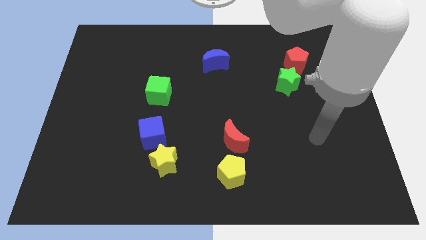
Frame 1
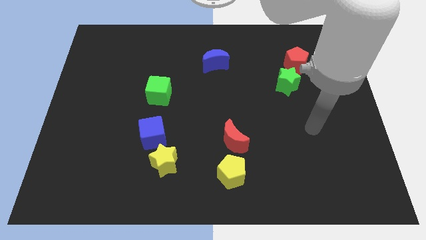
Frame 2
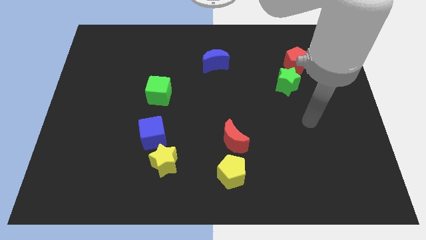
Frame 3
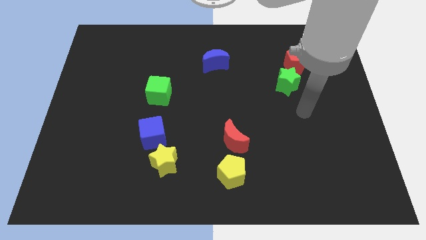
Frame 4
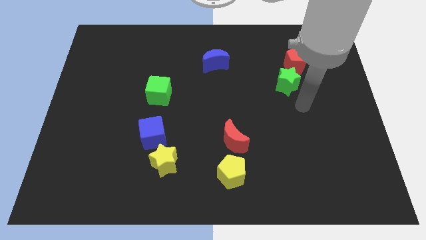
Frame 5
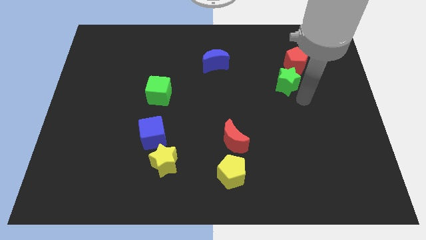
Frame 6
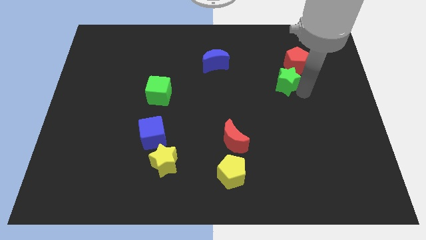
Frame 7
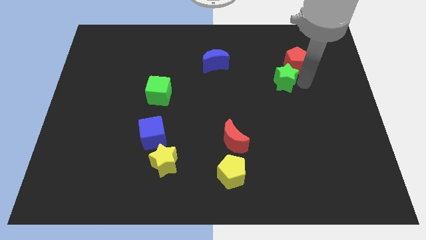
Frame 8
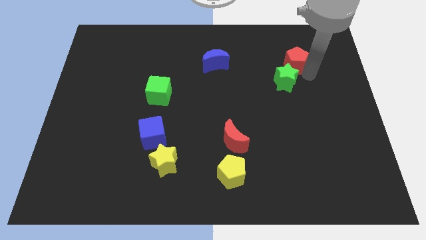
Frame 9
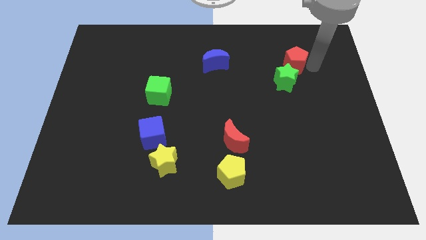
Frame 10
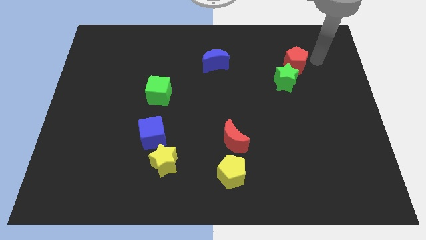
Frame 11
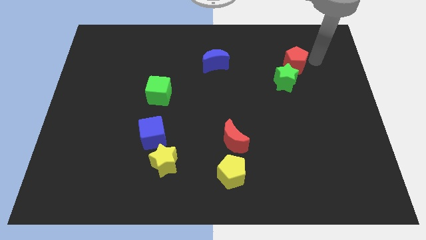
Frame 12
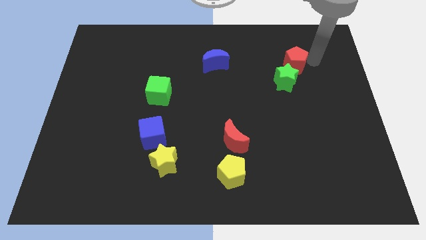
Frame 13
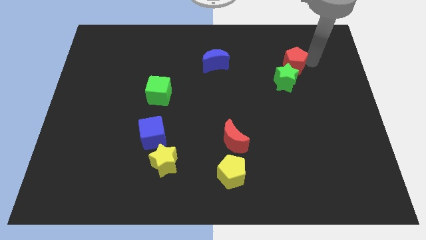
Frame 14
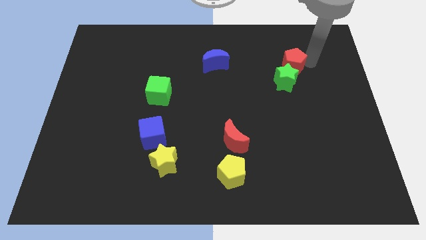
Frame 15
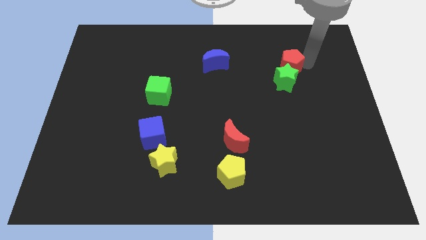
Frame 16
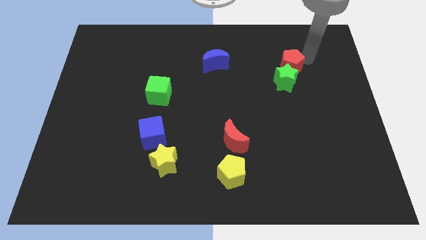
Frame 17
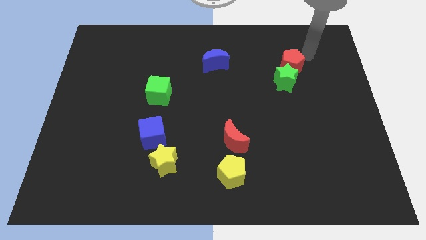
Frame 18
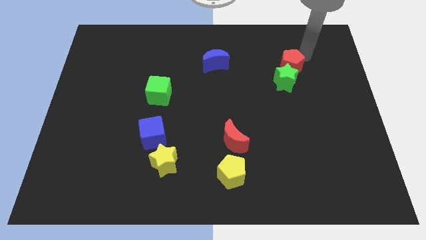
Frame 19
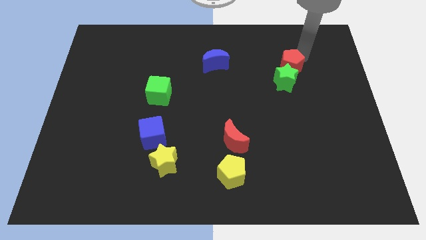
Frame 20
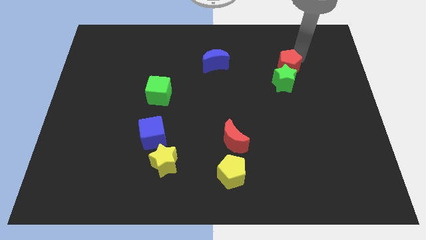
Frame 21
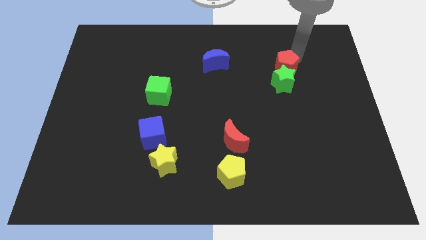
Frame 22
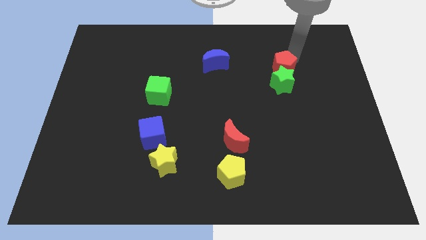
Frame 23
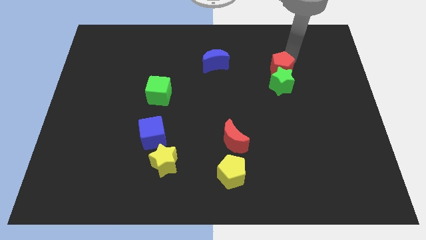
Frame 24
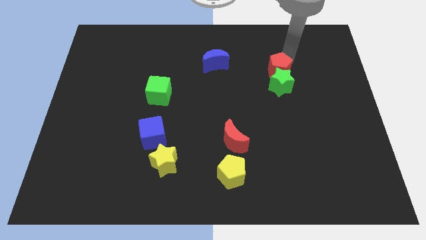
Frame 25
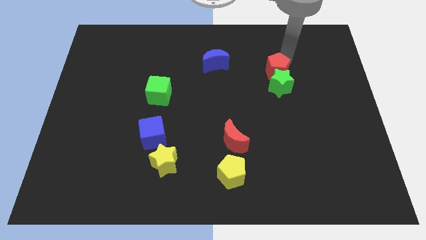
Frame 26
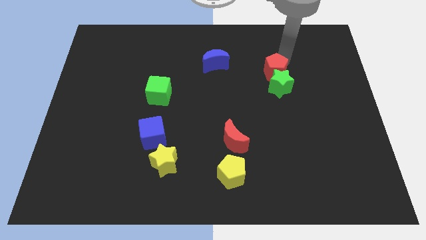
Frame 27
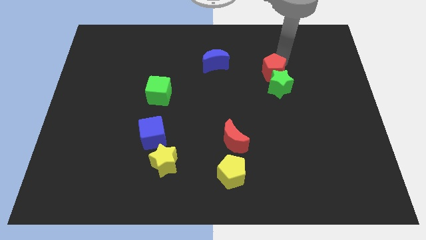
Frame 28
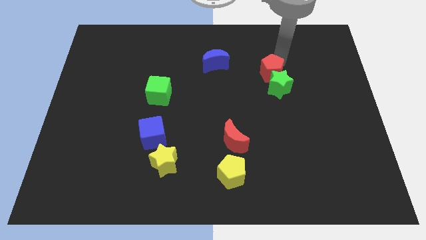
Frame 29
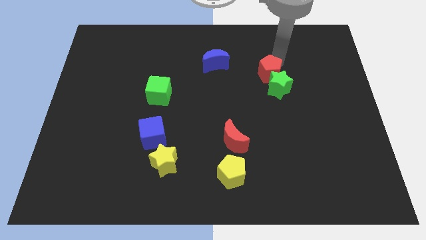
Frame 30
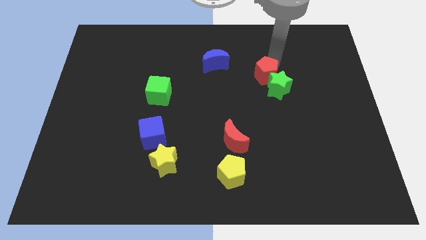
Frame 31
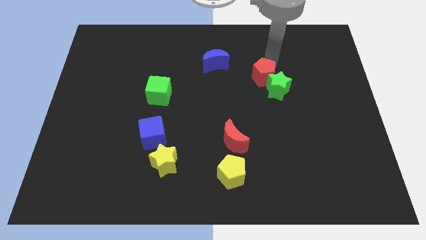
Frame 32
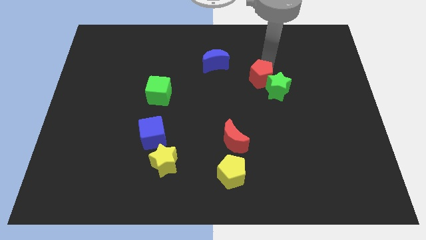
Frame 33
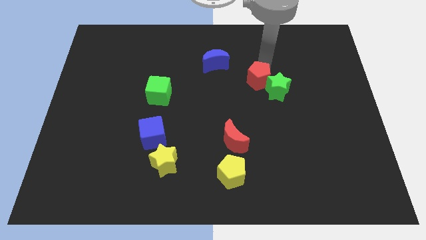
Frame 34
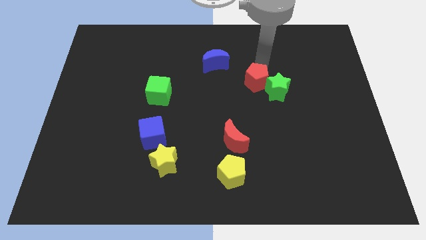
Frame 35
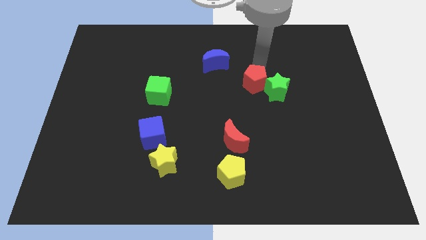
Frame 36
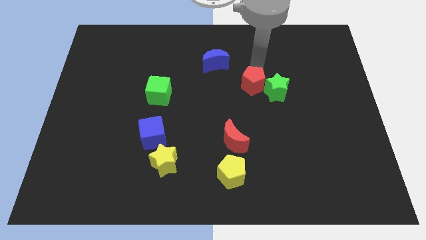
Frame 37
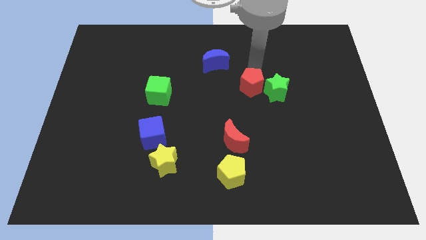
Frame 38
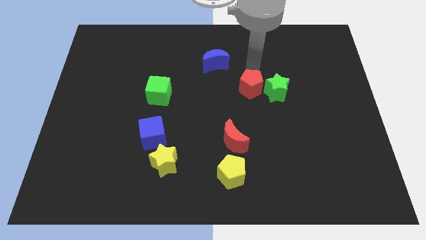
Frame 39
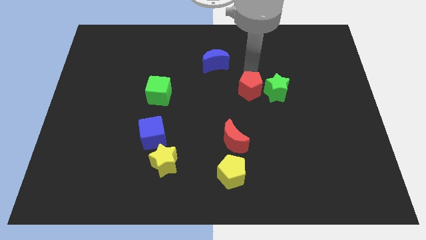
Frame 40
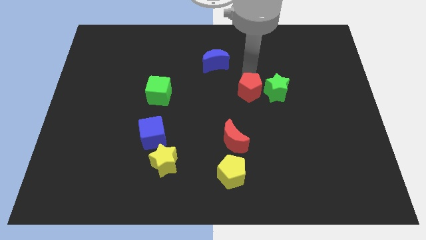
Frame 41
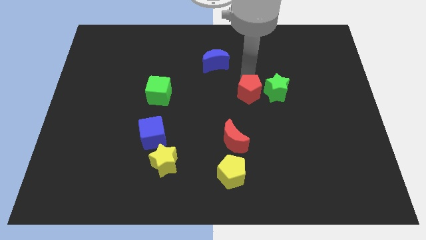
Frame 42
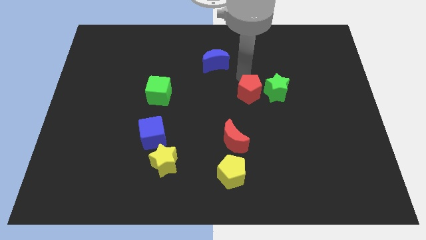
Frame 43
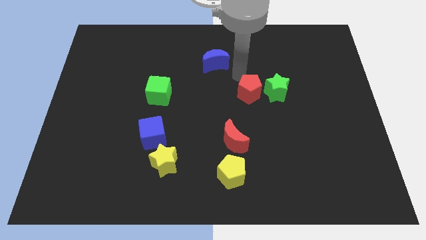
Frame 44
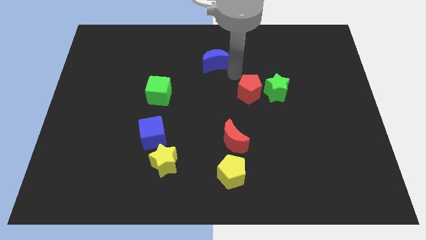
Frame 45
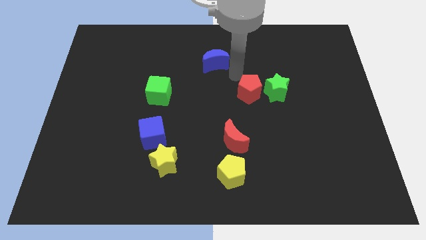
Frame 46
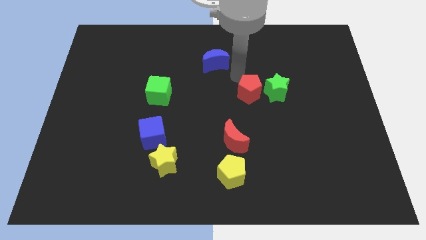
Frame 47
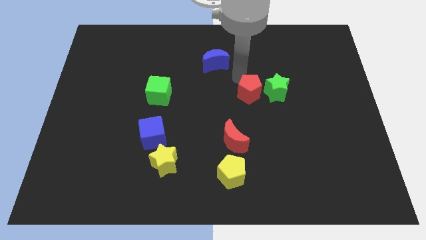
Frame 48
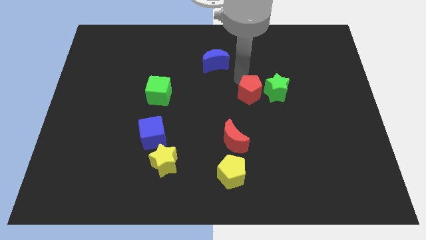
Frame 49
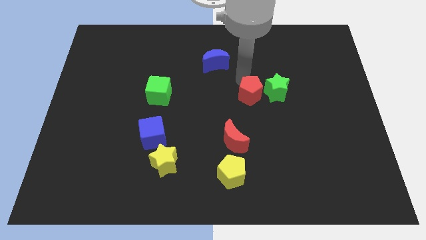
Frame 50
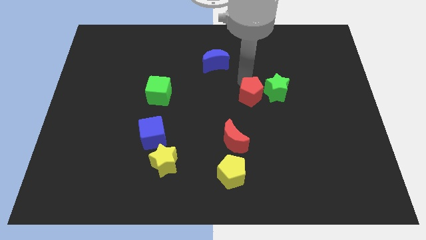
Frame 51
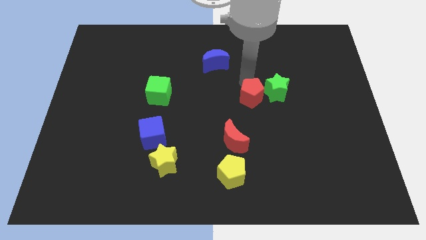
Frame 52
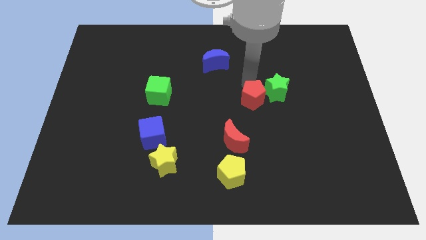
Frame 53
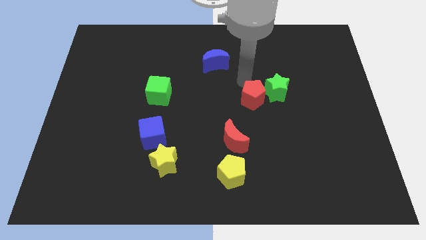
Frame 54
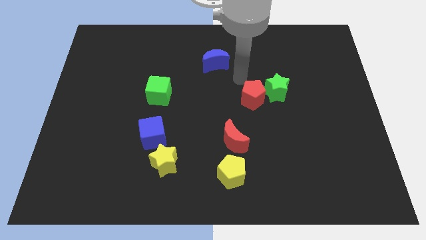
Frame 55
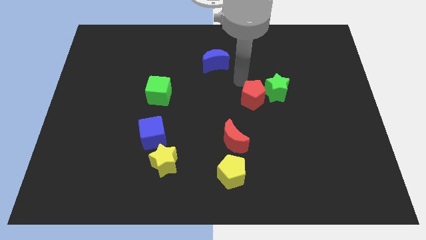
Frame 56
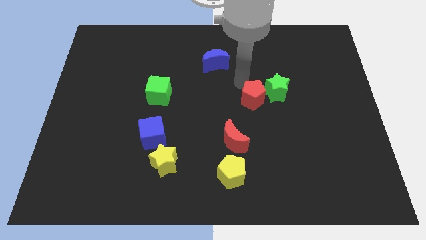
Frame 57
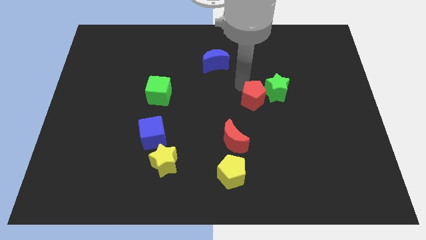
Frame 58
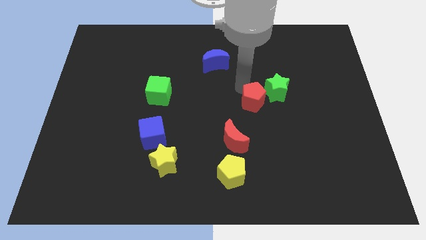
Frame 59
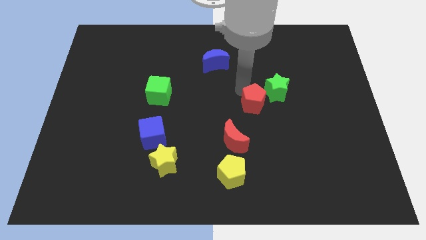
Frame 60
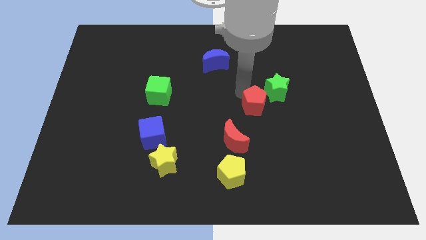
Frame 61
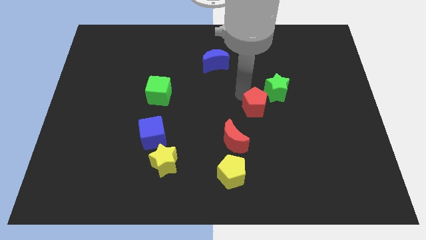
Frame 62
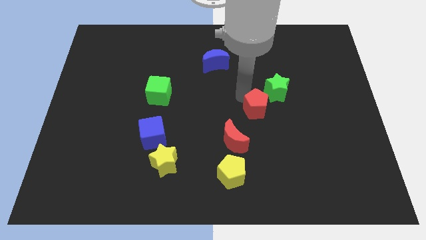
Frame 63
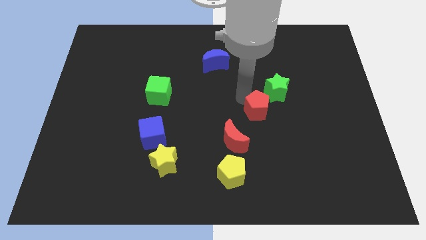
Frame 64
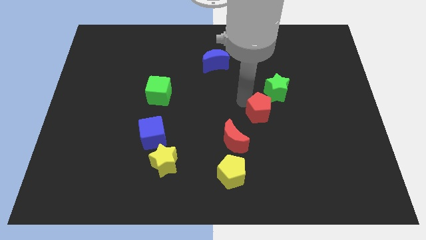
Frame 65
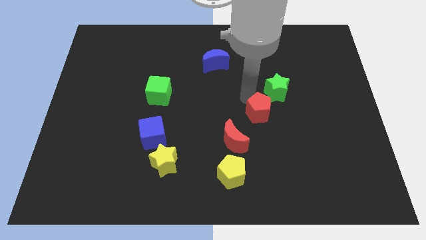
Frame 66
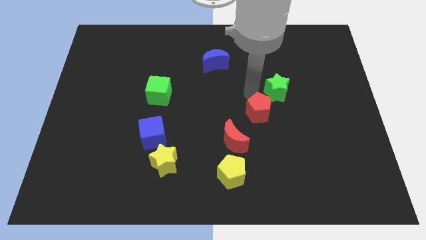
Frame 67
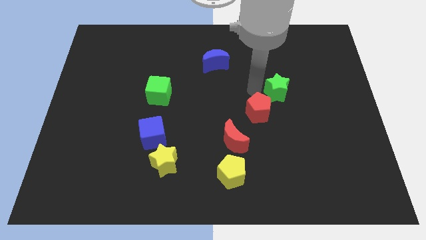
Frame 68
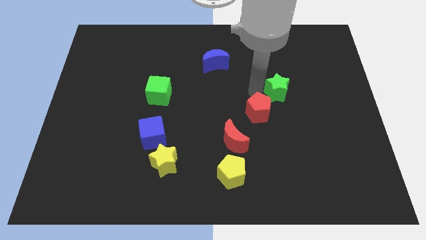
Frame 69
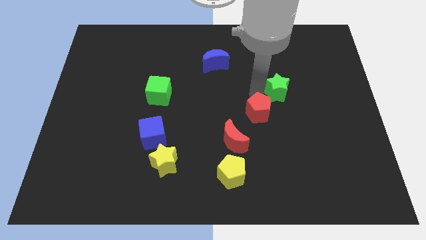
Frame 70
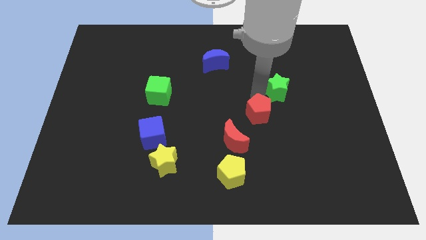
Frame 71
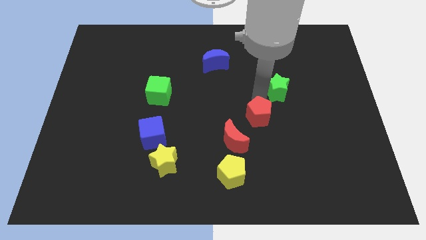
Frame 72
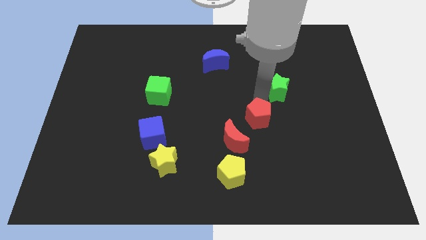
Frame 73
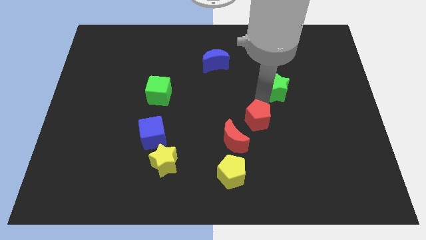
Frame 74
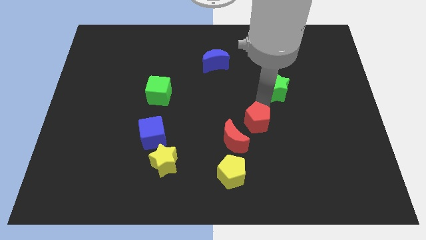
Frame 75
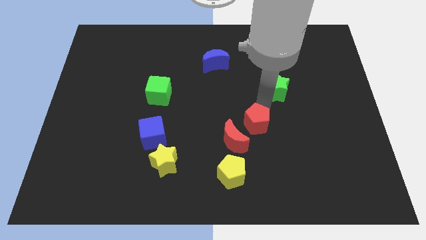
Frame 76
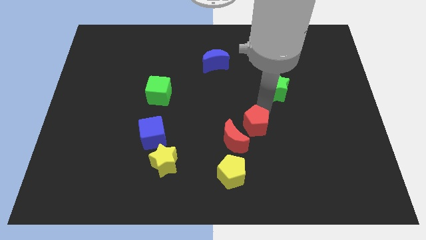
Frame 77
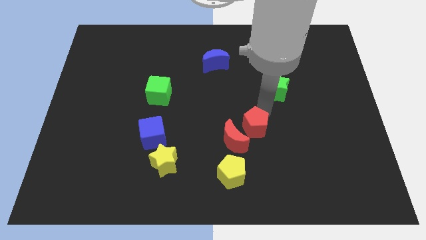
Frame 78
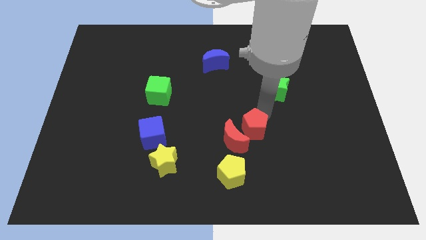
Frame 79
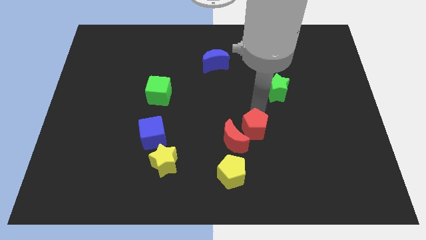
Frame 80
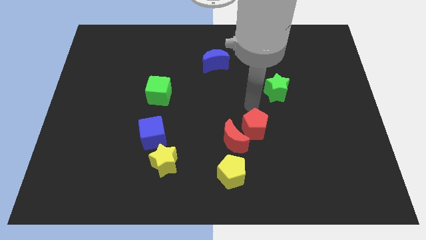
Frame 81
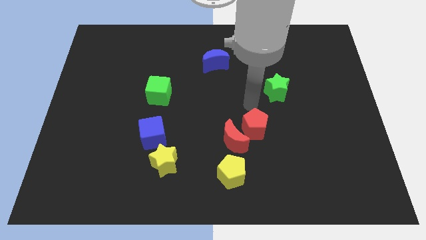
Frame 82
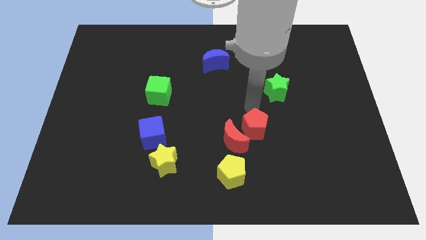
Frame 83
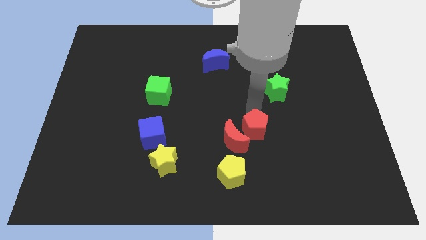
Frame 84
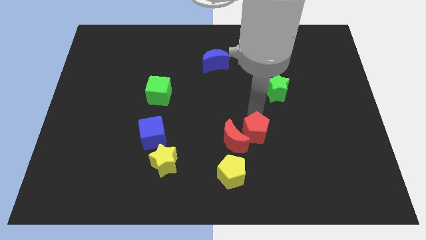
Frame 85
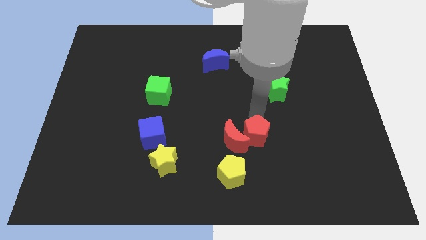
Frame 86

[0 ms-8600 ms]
put the red pentagon to the bottom right of the red moon

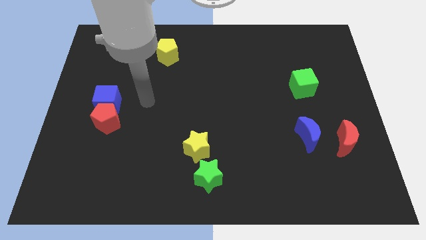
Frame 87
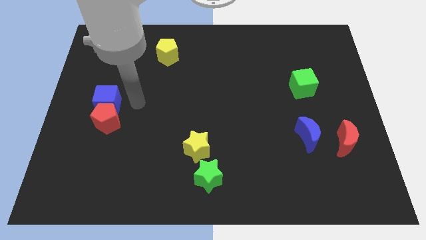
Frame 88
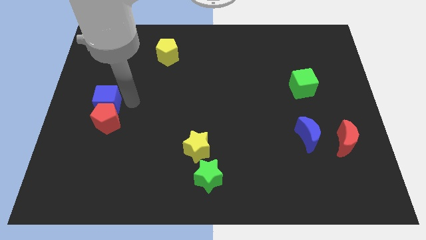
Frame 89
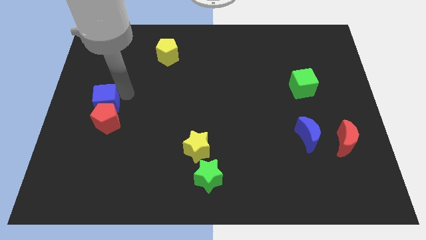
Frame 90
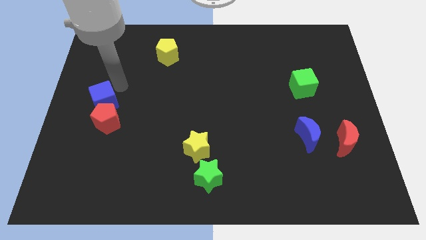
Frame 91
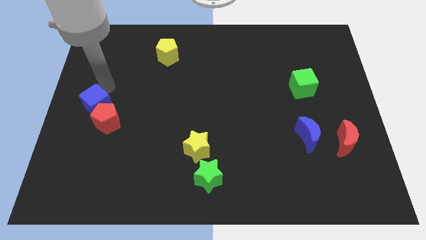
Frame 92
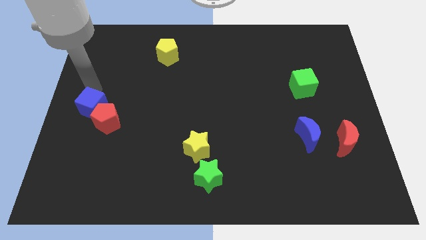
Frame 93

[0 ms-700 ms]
push the red pentagon right of the blue cube
